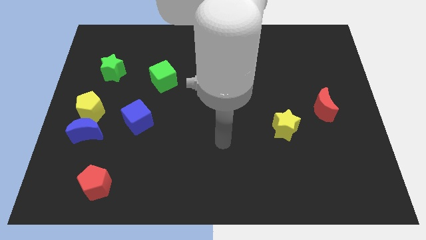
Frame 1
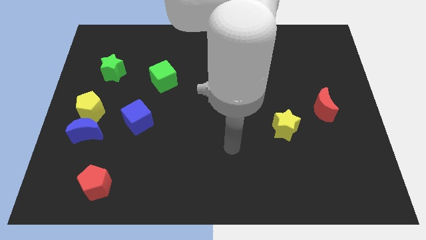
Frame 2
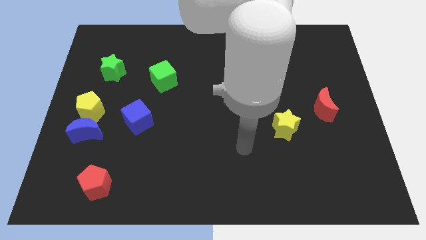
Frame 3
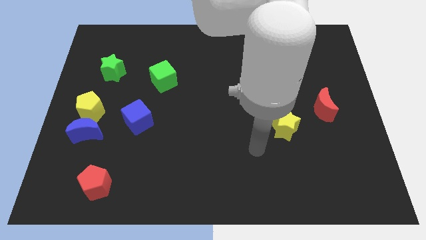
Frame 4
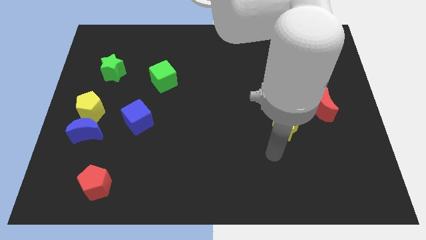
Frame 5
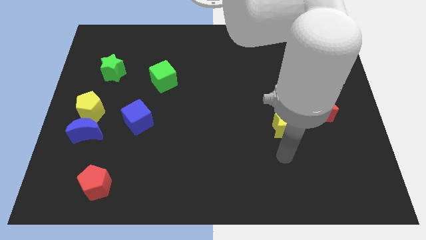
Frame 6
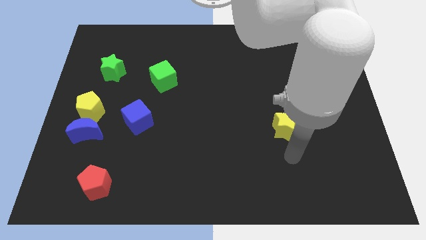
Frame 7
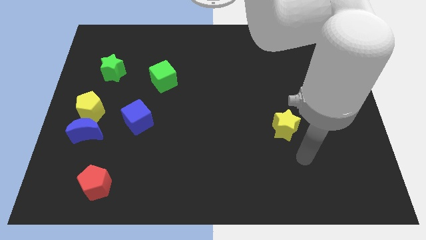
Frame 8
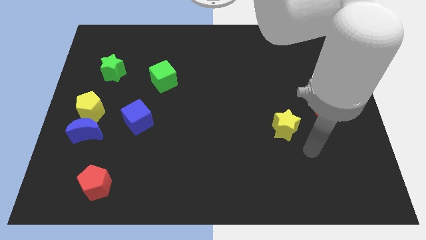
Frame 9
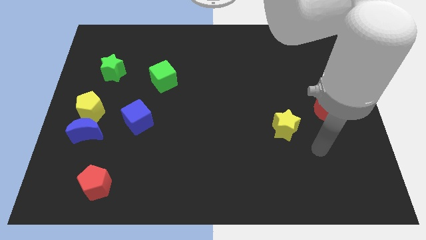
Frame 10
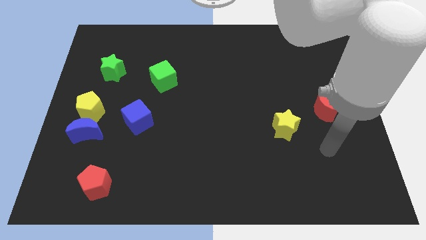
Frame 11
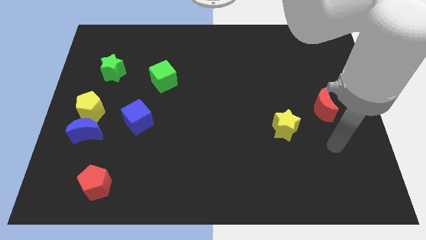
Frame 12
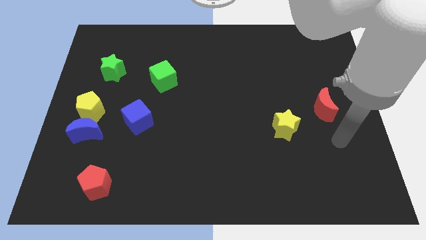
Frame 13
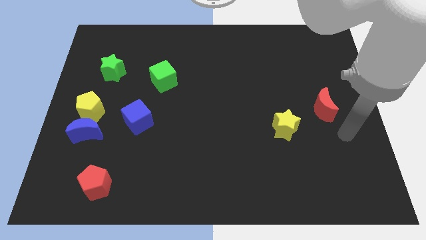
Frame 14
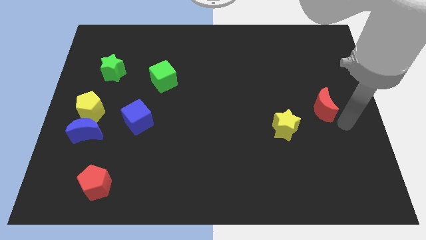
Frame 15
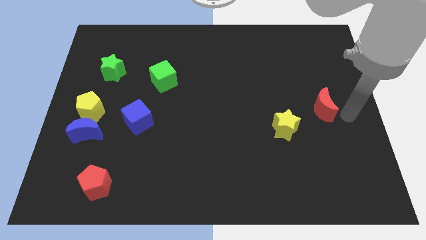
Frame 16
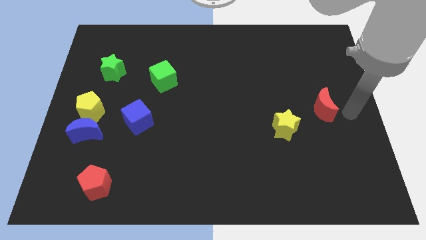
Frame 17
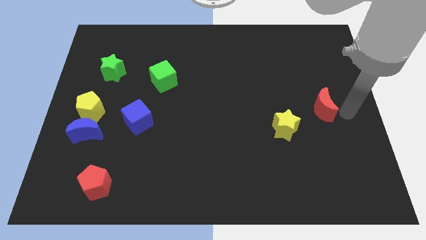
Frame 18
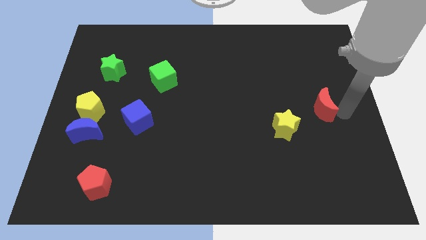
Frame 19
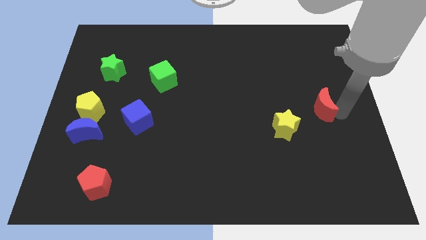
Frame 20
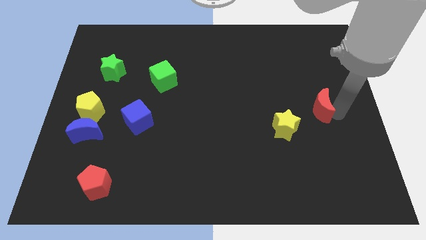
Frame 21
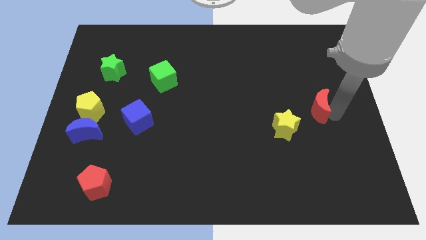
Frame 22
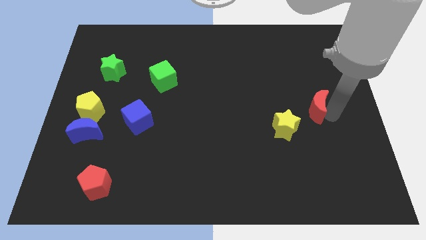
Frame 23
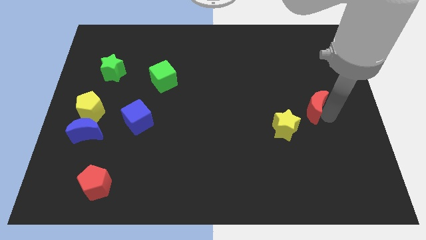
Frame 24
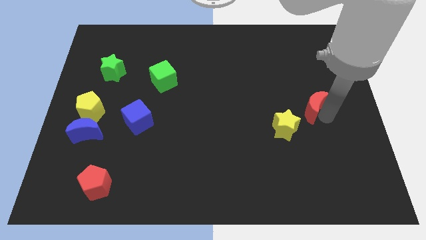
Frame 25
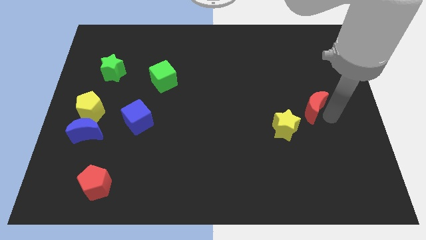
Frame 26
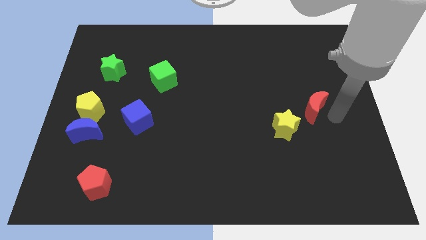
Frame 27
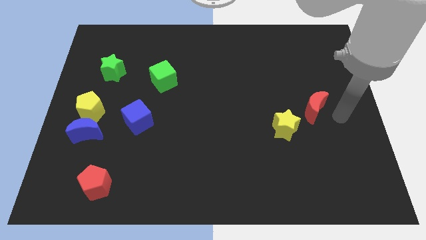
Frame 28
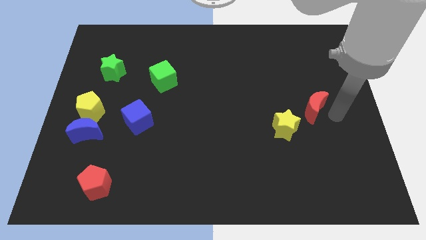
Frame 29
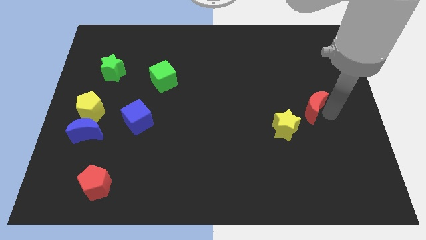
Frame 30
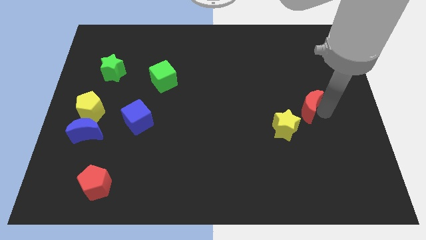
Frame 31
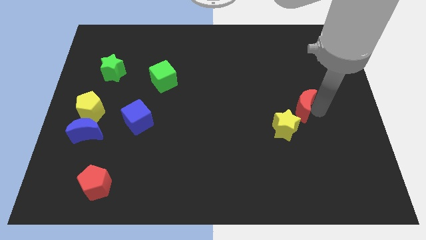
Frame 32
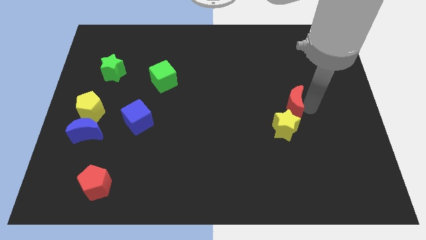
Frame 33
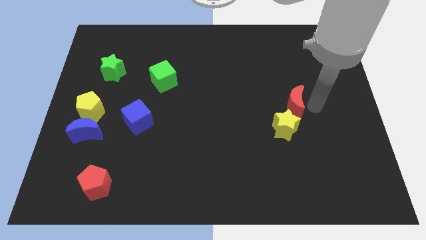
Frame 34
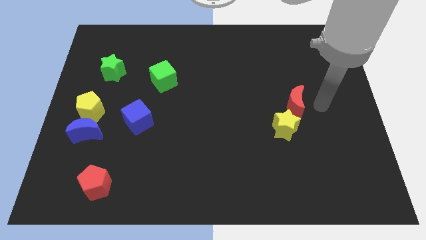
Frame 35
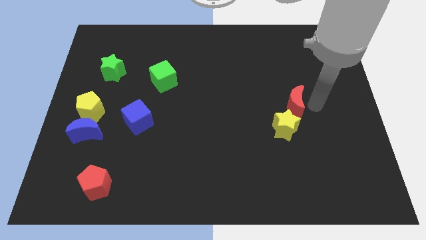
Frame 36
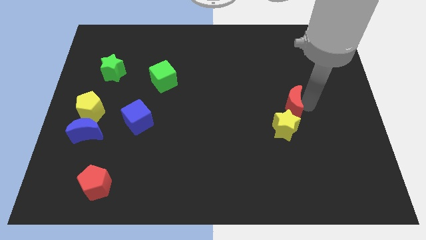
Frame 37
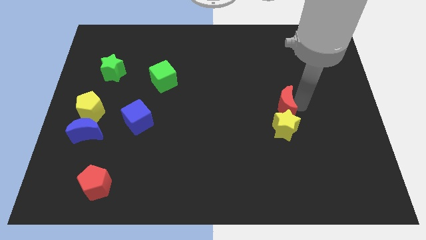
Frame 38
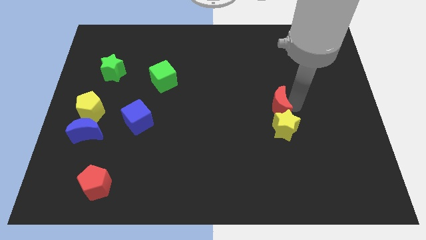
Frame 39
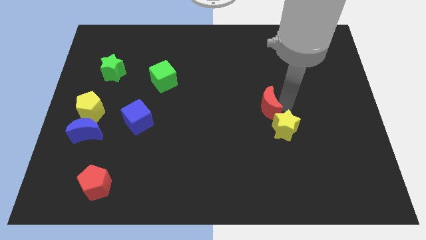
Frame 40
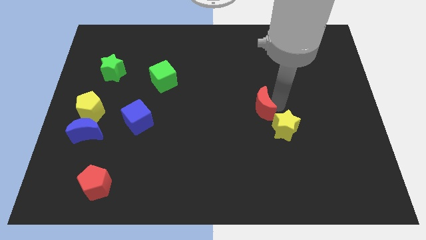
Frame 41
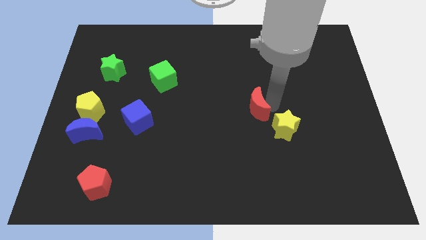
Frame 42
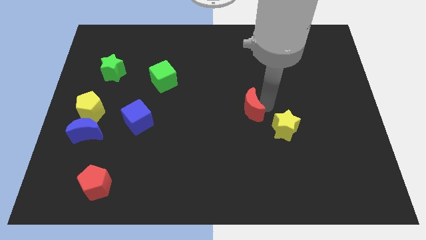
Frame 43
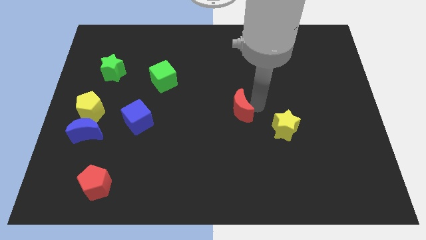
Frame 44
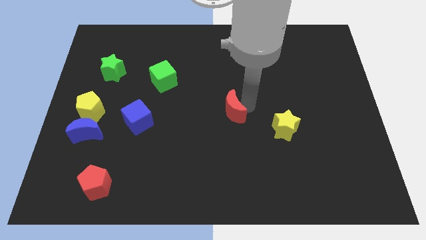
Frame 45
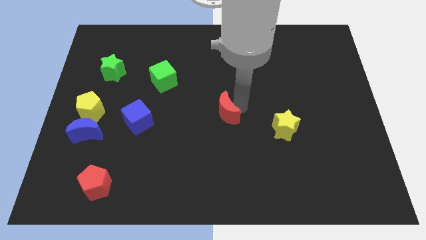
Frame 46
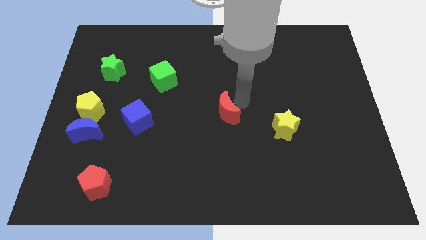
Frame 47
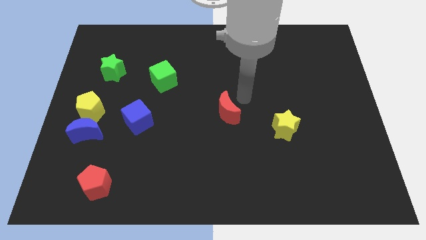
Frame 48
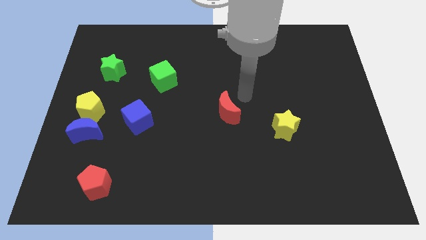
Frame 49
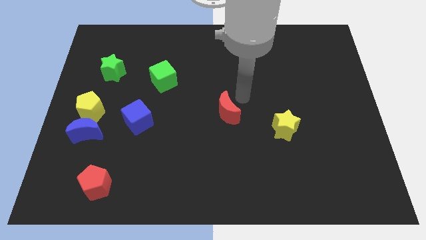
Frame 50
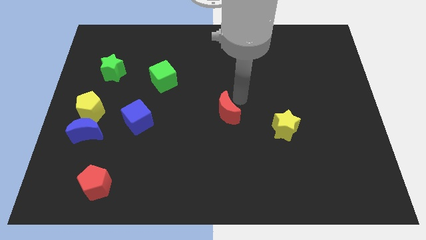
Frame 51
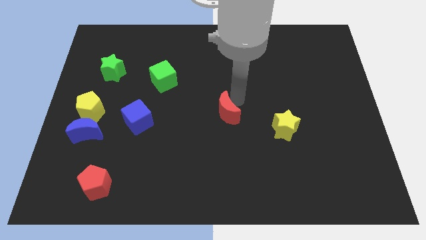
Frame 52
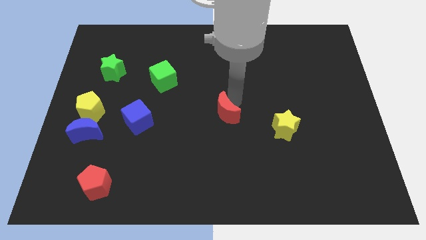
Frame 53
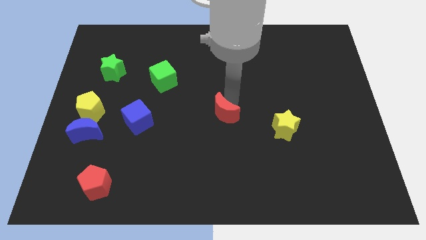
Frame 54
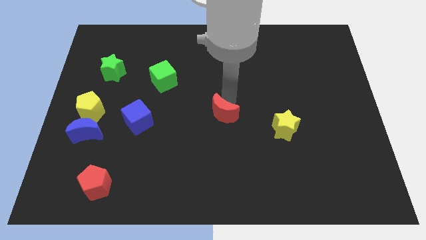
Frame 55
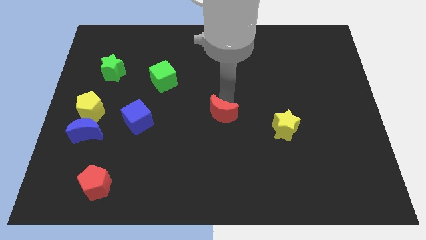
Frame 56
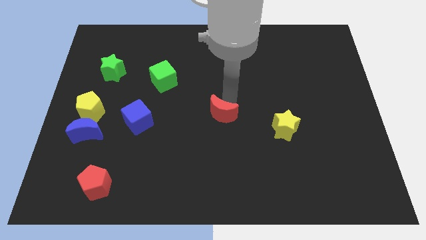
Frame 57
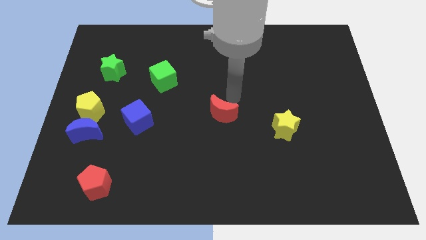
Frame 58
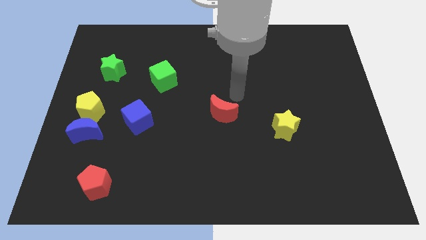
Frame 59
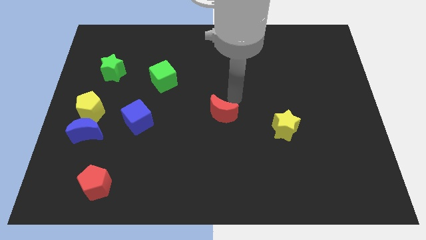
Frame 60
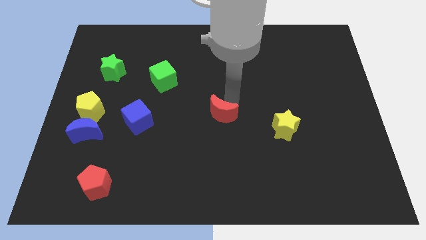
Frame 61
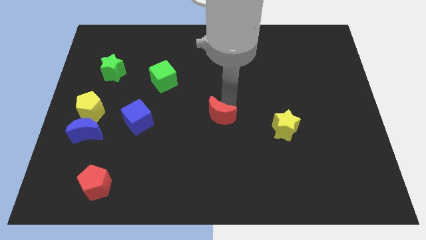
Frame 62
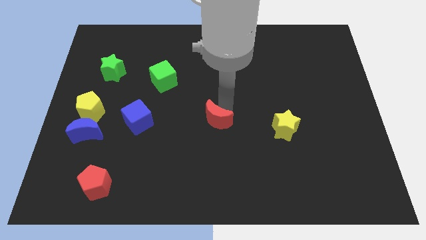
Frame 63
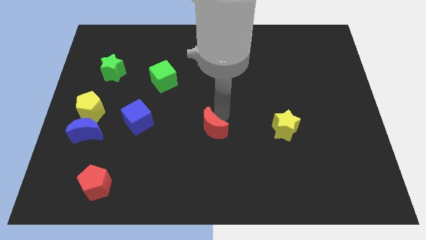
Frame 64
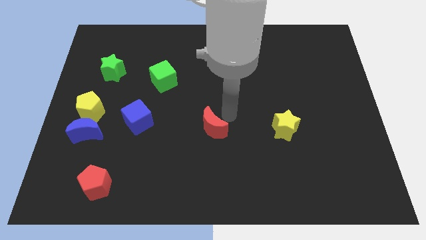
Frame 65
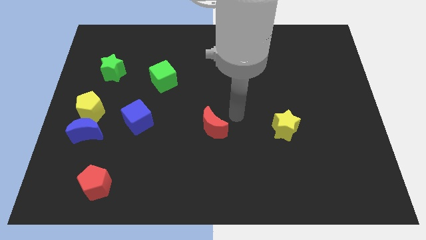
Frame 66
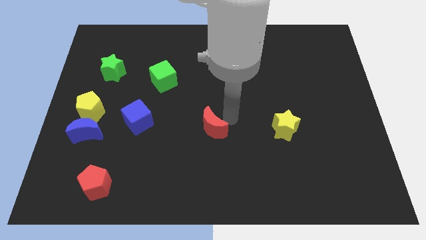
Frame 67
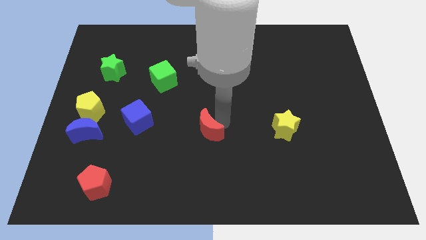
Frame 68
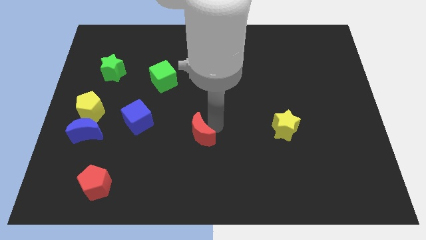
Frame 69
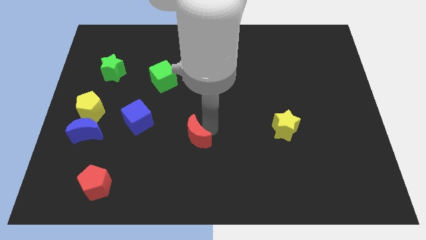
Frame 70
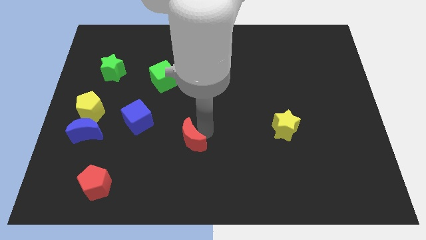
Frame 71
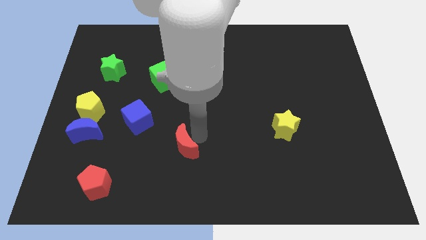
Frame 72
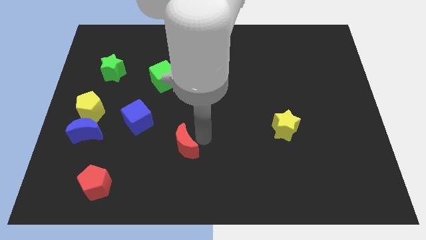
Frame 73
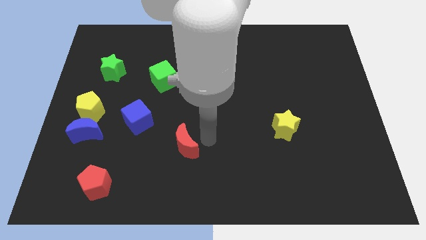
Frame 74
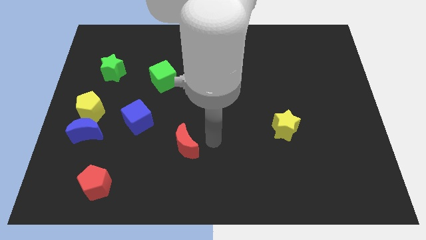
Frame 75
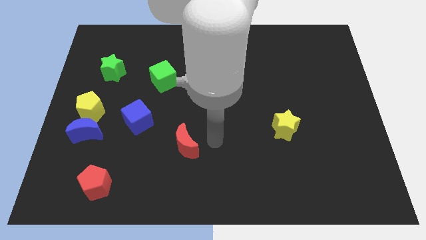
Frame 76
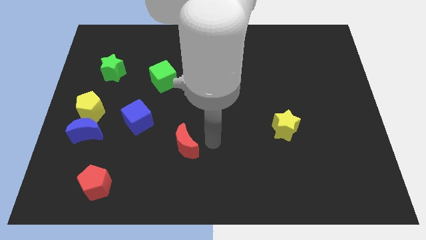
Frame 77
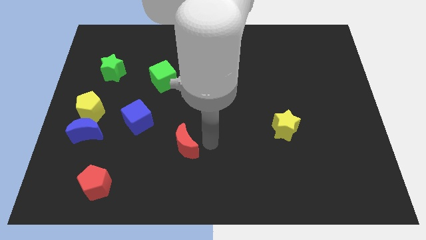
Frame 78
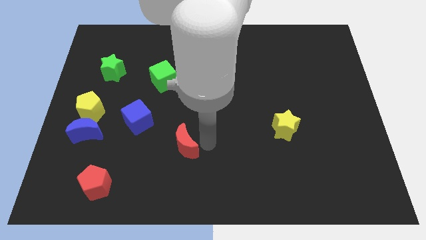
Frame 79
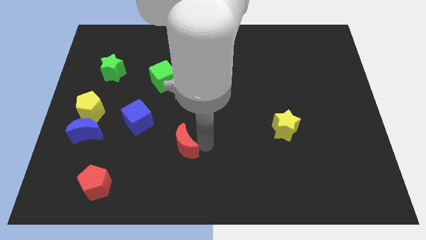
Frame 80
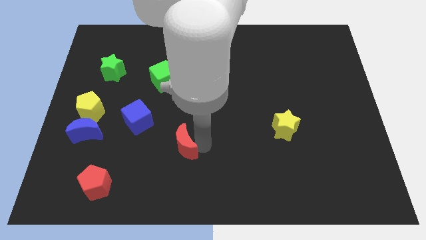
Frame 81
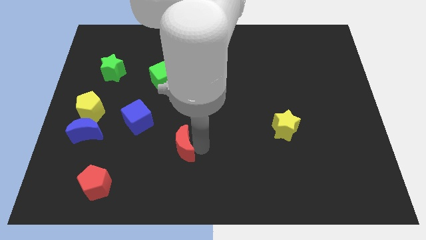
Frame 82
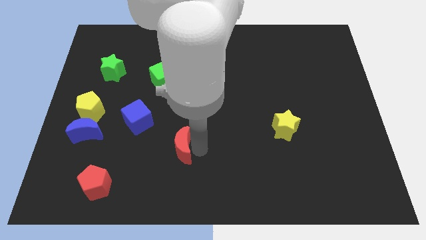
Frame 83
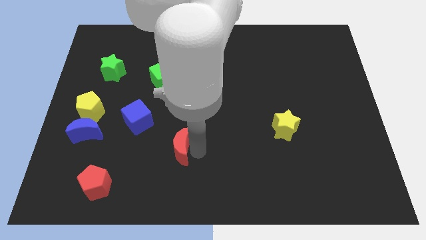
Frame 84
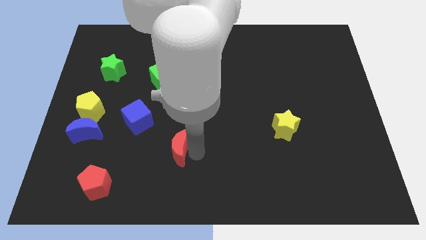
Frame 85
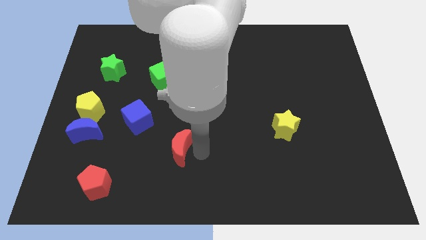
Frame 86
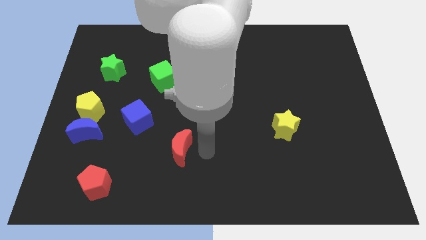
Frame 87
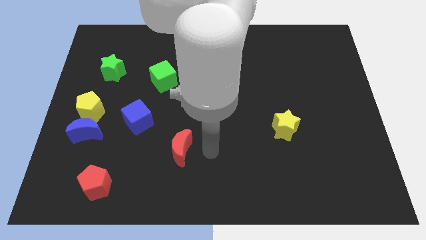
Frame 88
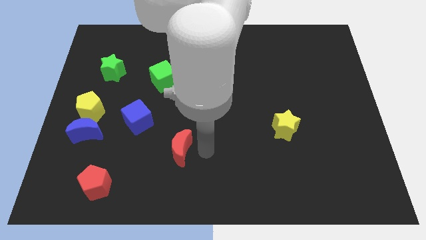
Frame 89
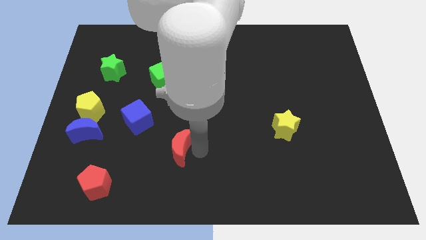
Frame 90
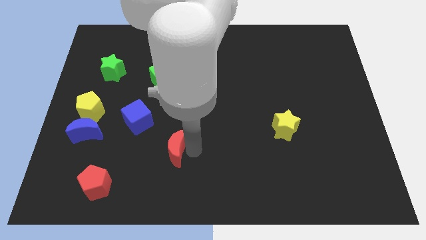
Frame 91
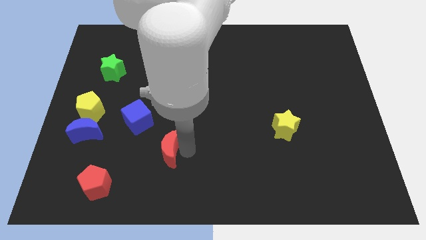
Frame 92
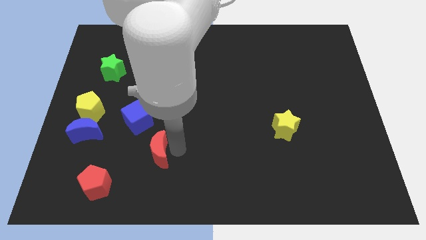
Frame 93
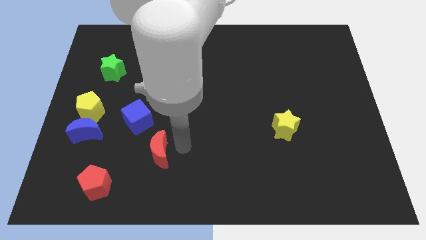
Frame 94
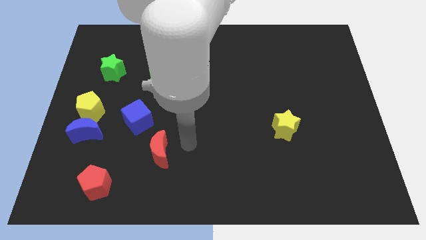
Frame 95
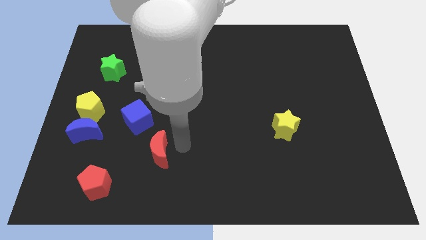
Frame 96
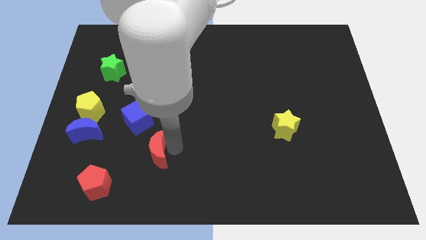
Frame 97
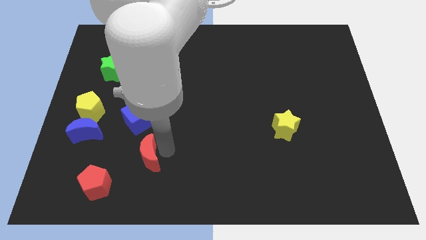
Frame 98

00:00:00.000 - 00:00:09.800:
put the red moon diagonally up and to the right of the red pentagon
